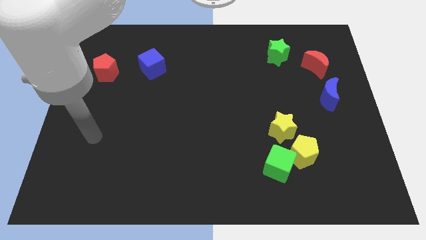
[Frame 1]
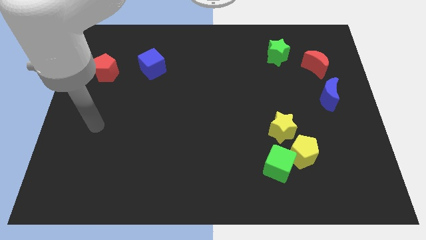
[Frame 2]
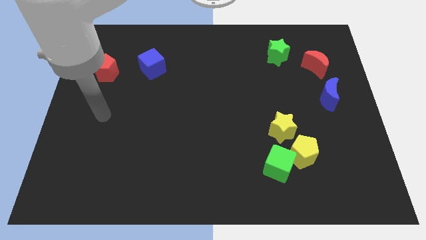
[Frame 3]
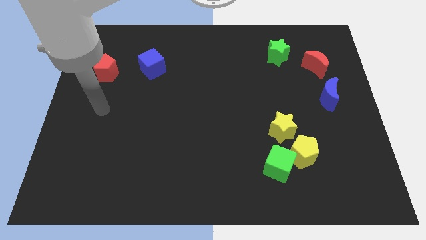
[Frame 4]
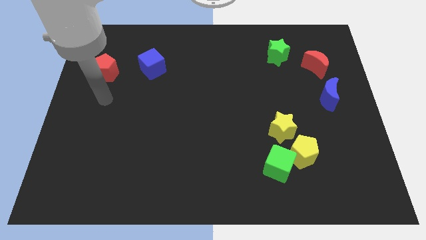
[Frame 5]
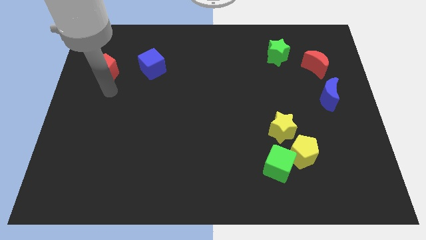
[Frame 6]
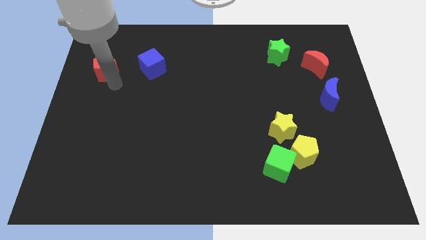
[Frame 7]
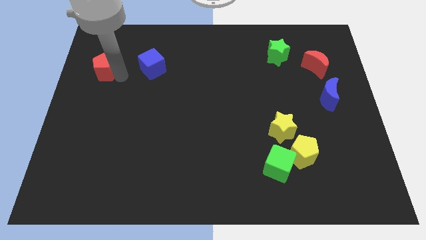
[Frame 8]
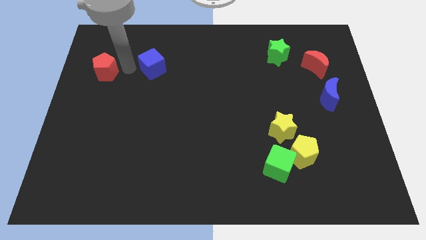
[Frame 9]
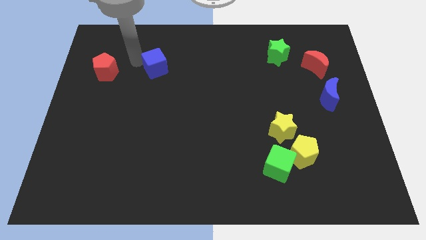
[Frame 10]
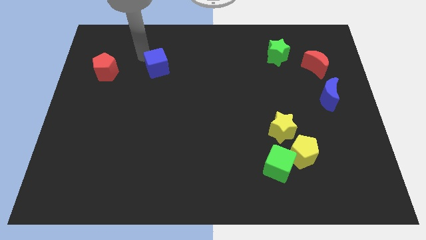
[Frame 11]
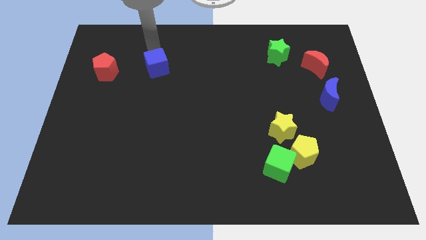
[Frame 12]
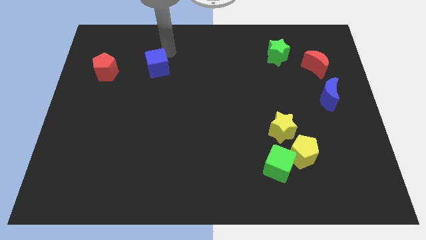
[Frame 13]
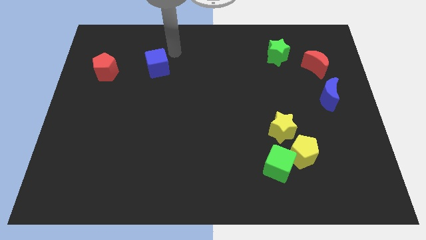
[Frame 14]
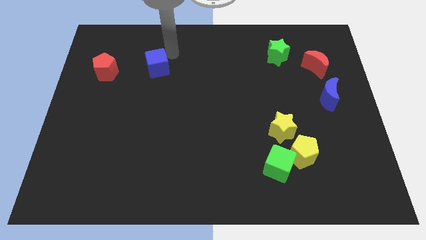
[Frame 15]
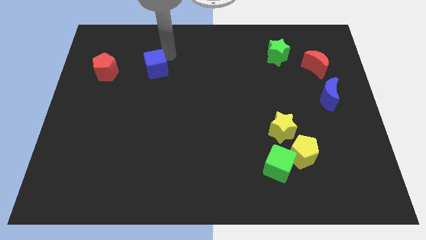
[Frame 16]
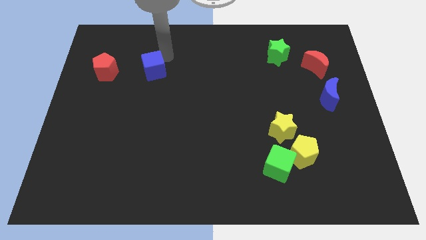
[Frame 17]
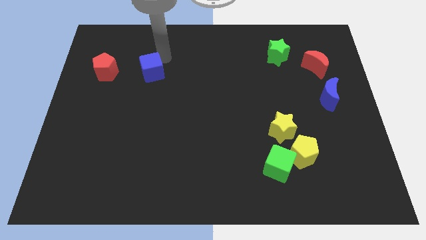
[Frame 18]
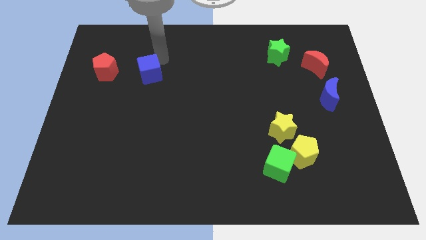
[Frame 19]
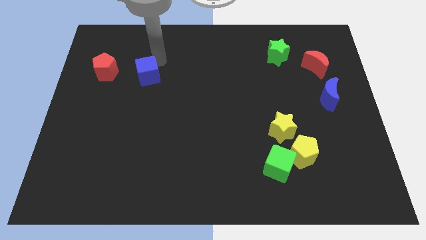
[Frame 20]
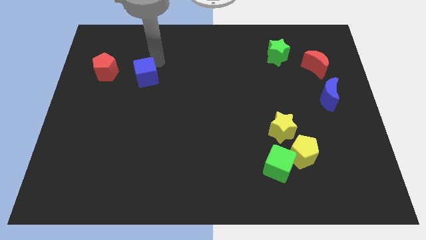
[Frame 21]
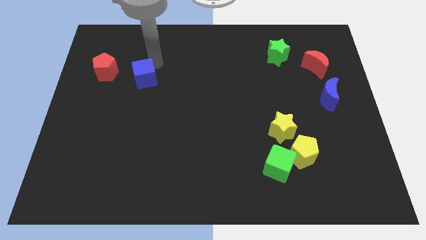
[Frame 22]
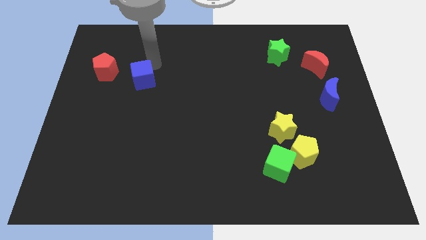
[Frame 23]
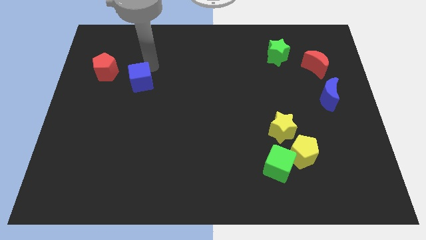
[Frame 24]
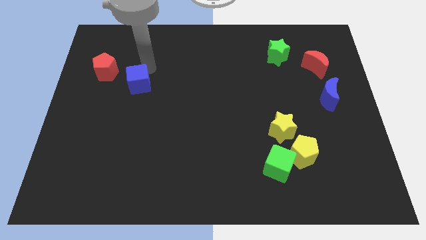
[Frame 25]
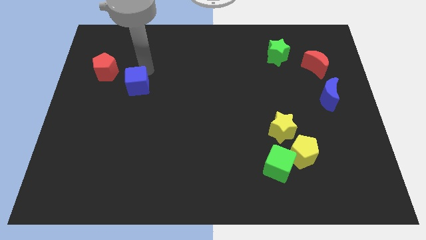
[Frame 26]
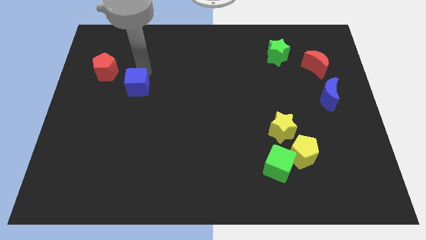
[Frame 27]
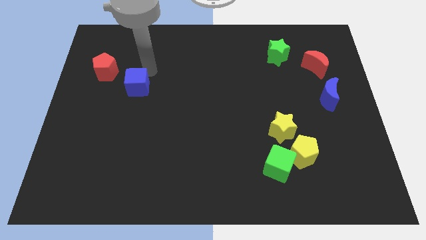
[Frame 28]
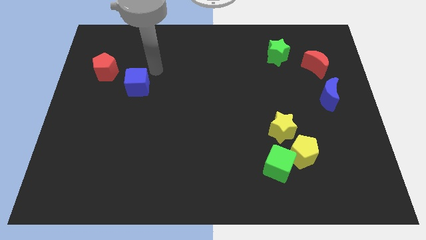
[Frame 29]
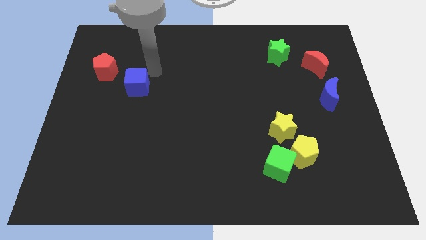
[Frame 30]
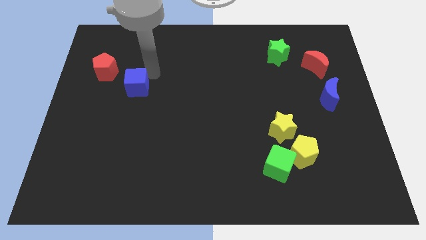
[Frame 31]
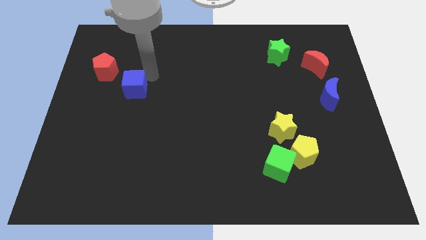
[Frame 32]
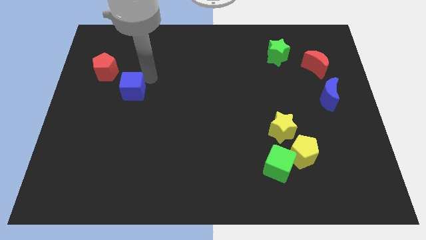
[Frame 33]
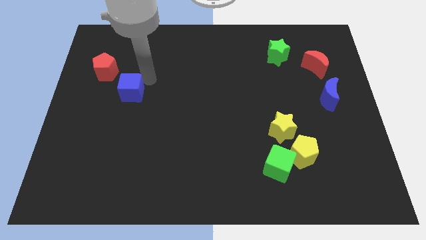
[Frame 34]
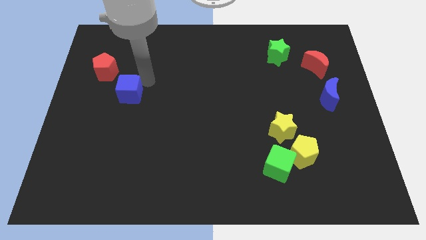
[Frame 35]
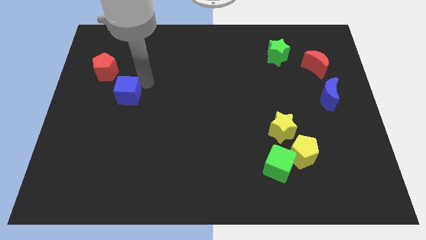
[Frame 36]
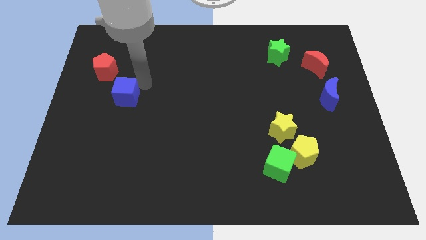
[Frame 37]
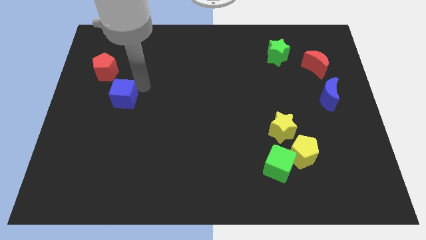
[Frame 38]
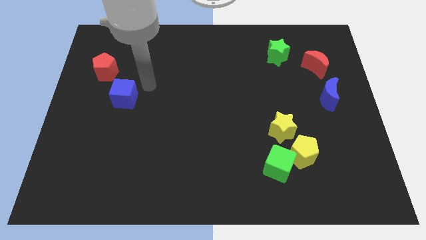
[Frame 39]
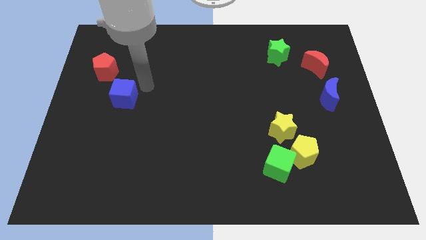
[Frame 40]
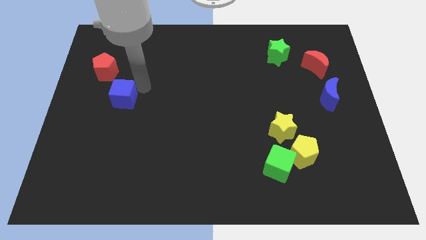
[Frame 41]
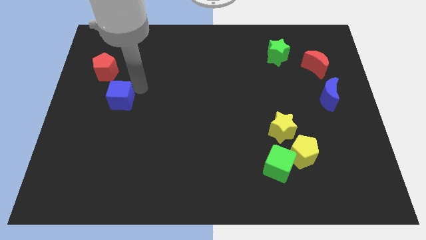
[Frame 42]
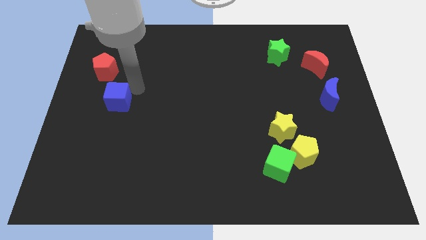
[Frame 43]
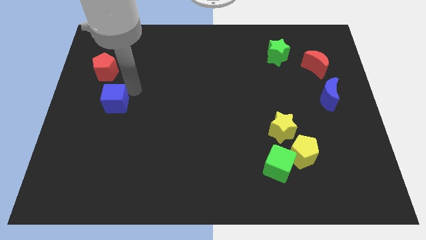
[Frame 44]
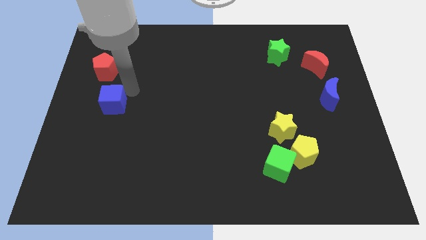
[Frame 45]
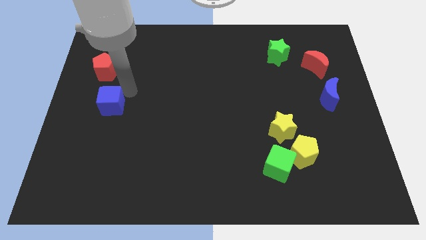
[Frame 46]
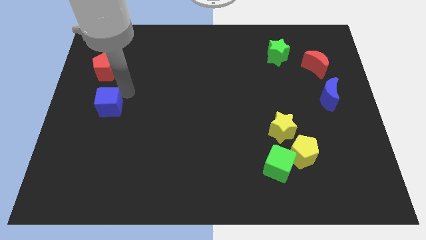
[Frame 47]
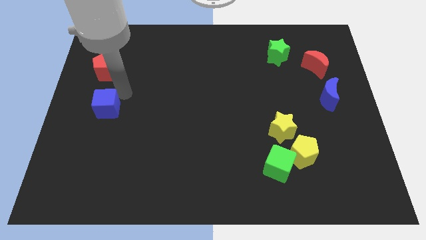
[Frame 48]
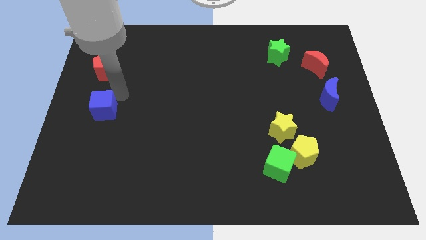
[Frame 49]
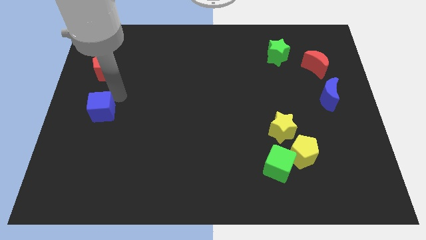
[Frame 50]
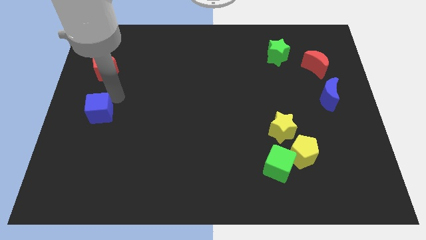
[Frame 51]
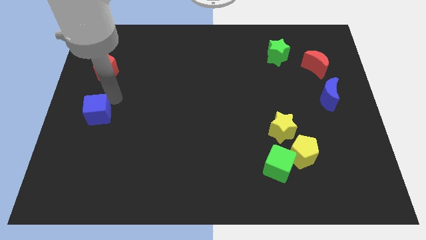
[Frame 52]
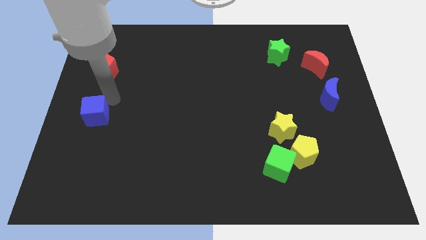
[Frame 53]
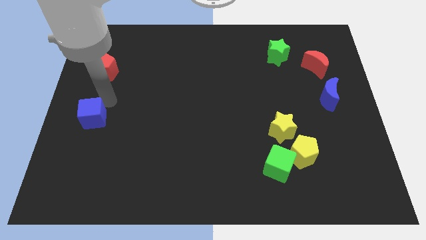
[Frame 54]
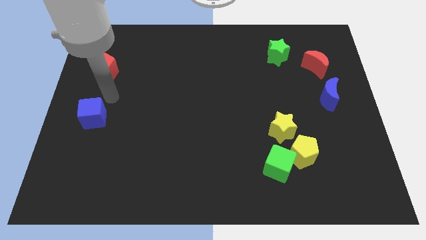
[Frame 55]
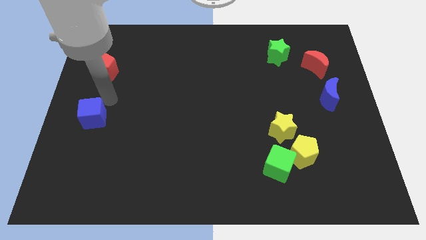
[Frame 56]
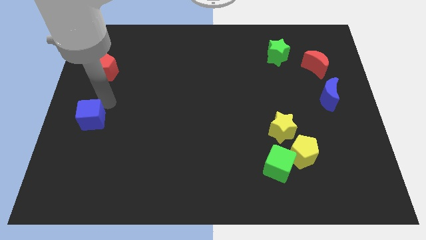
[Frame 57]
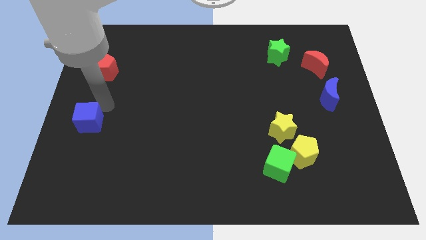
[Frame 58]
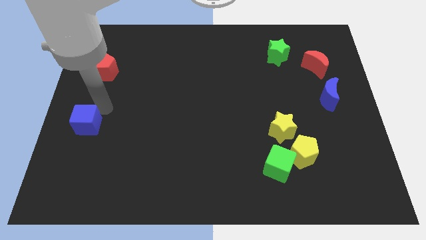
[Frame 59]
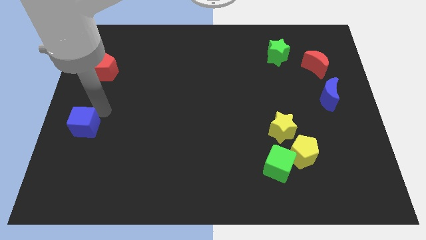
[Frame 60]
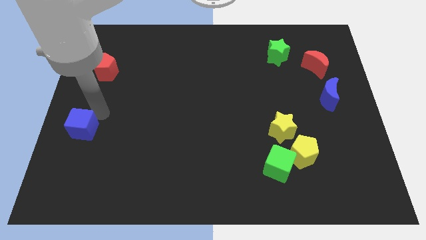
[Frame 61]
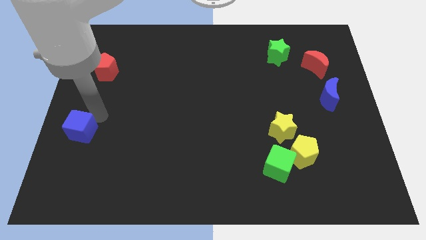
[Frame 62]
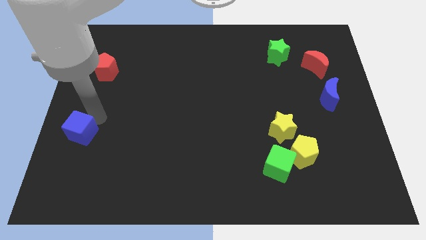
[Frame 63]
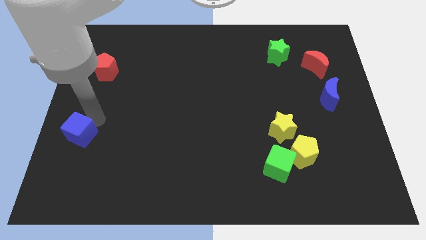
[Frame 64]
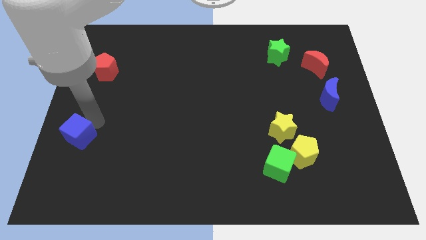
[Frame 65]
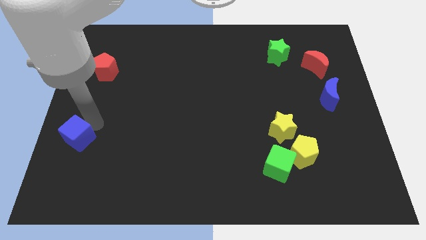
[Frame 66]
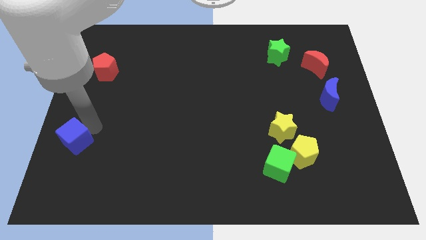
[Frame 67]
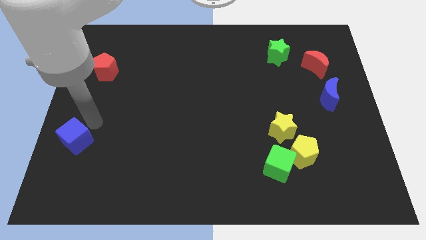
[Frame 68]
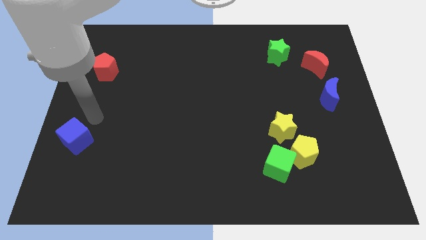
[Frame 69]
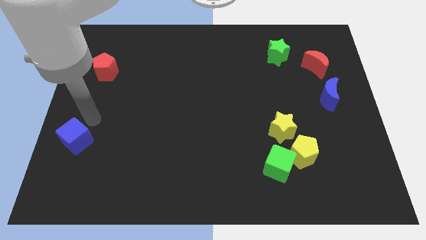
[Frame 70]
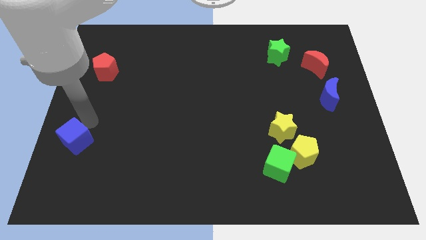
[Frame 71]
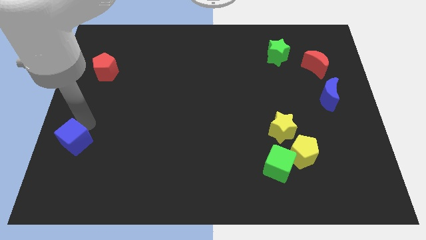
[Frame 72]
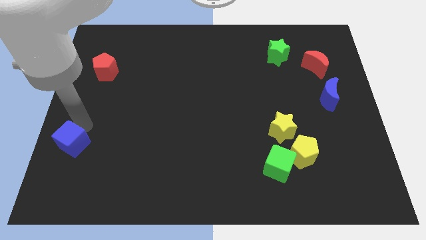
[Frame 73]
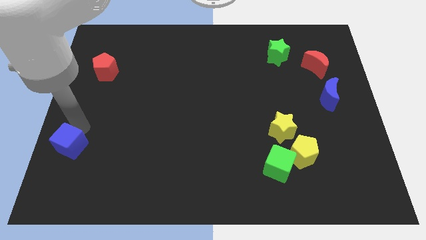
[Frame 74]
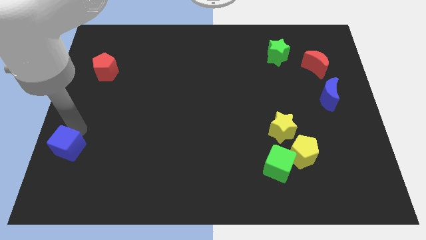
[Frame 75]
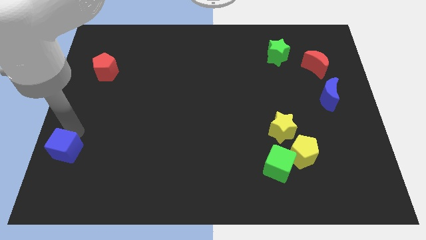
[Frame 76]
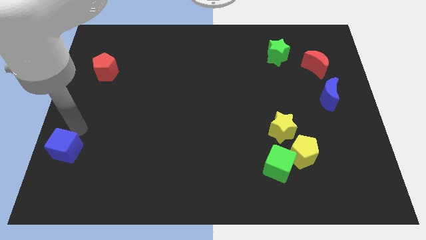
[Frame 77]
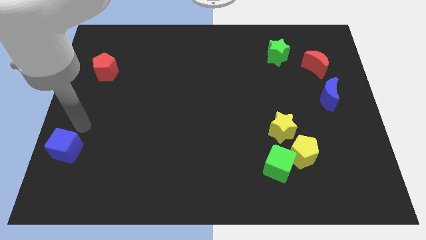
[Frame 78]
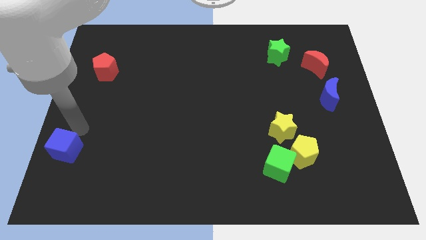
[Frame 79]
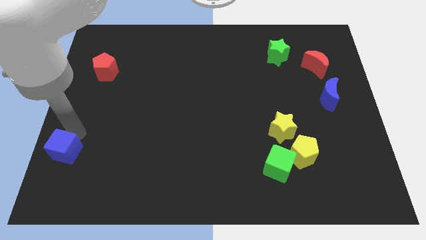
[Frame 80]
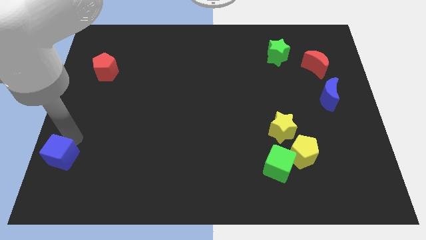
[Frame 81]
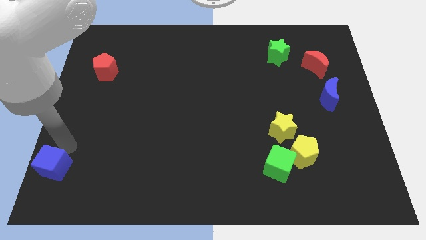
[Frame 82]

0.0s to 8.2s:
push the blue cube to the bottom left of the board
